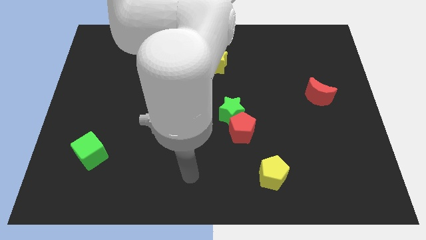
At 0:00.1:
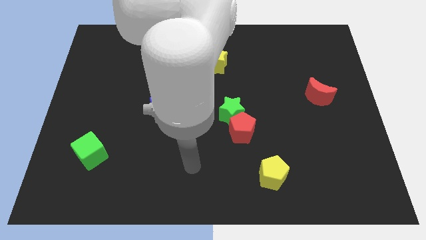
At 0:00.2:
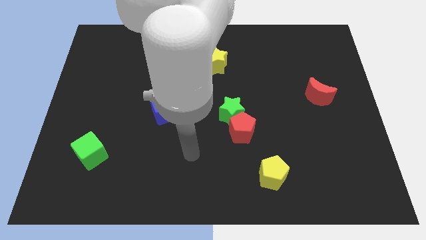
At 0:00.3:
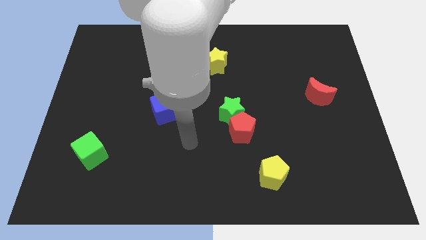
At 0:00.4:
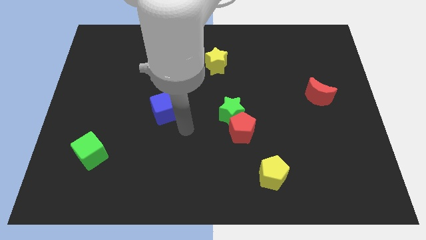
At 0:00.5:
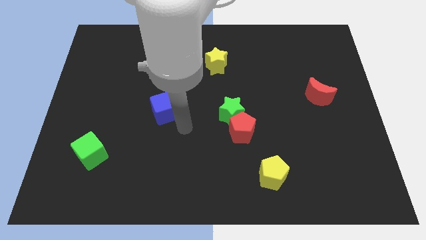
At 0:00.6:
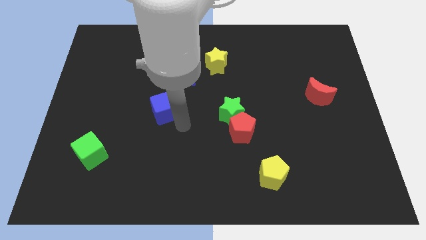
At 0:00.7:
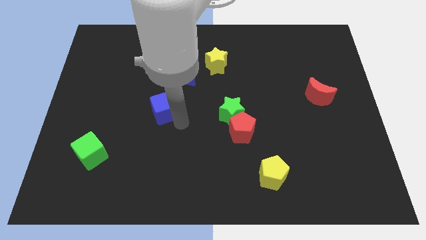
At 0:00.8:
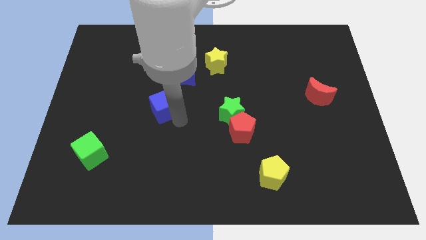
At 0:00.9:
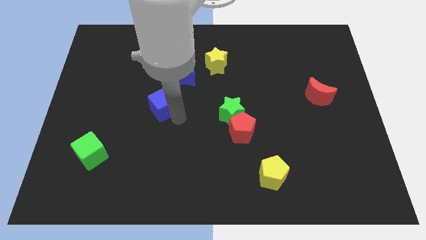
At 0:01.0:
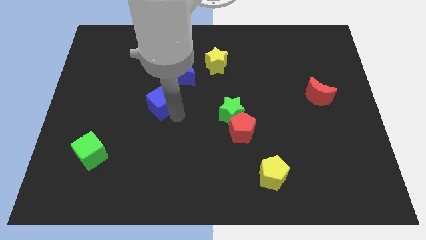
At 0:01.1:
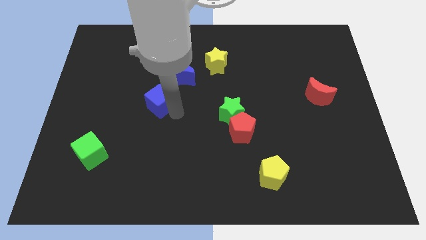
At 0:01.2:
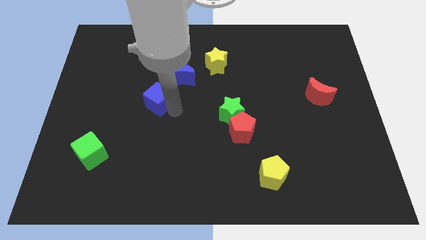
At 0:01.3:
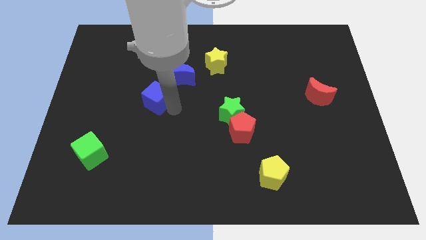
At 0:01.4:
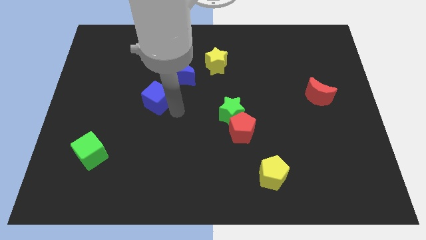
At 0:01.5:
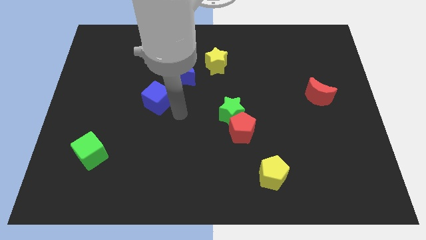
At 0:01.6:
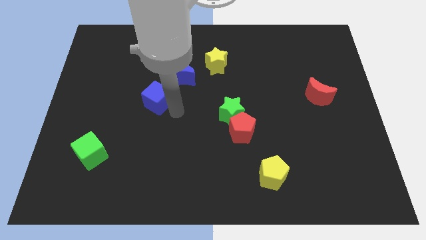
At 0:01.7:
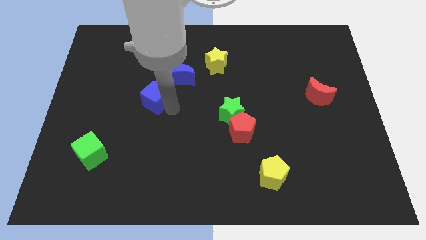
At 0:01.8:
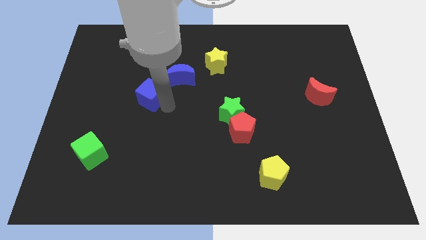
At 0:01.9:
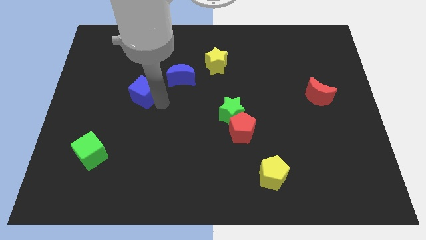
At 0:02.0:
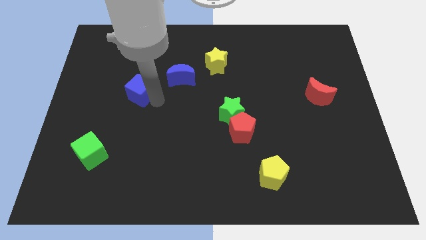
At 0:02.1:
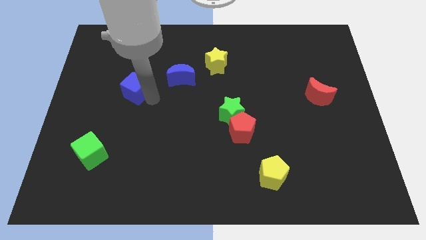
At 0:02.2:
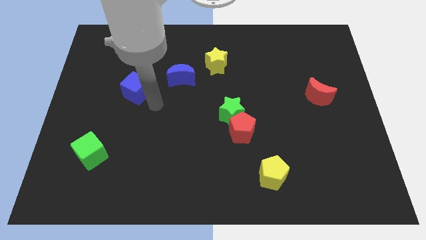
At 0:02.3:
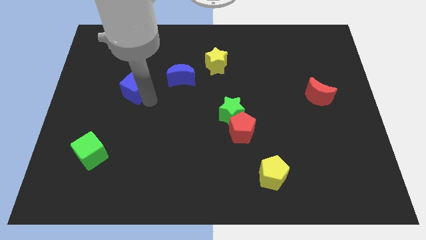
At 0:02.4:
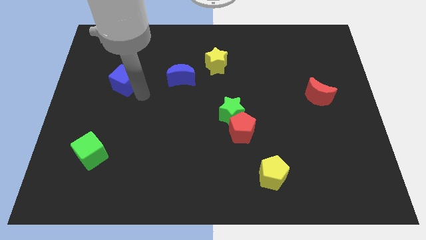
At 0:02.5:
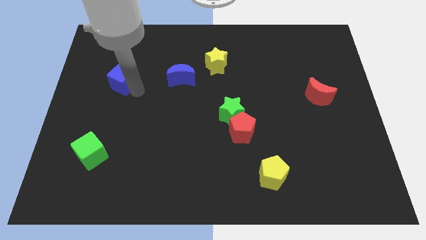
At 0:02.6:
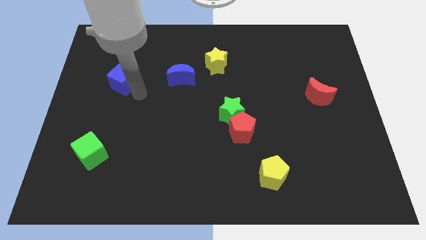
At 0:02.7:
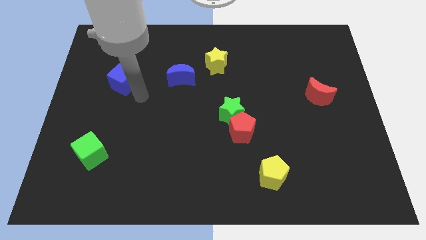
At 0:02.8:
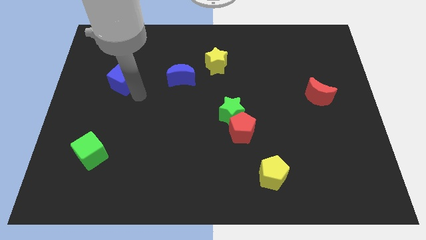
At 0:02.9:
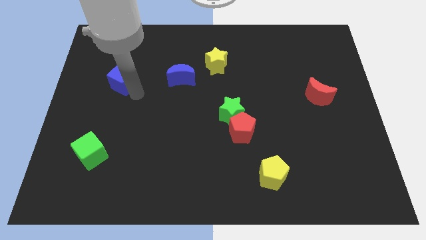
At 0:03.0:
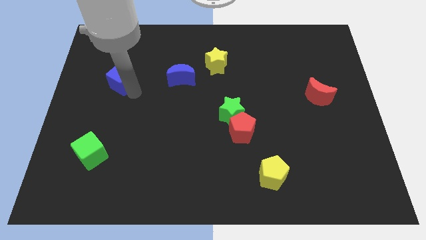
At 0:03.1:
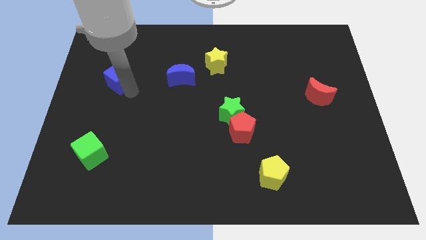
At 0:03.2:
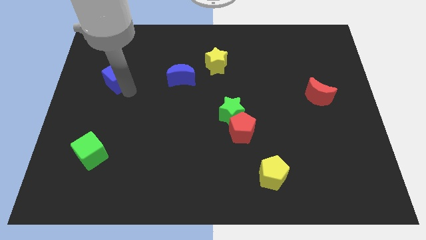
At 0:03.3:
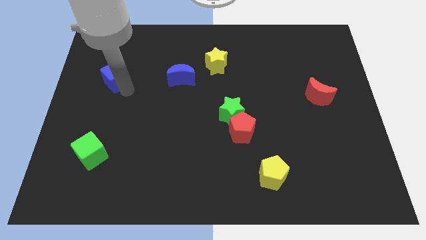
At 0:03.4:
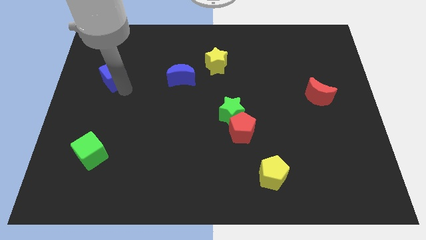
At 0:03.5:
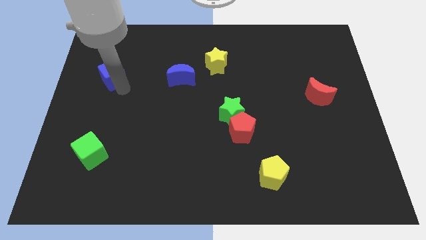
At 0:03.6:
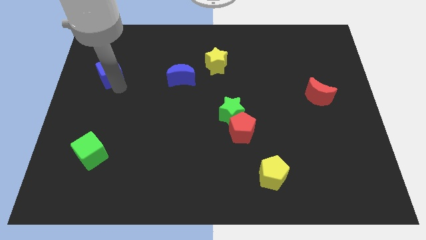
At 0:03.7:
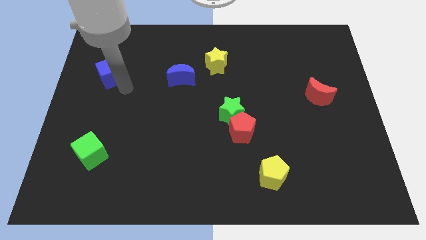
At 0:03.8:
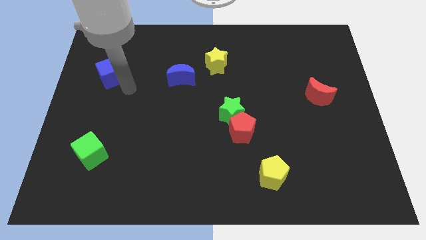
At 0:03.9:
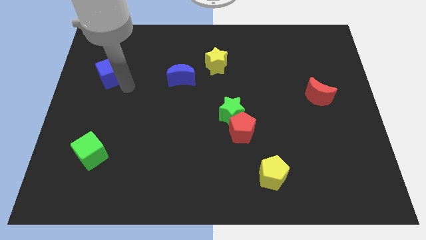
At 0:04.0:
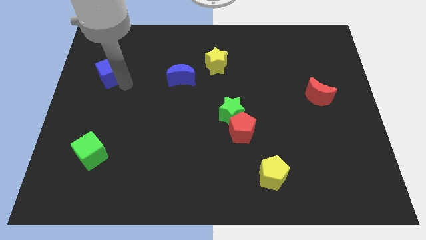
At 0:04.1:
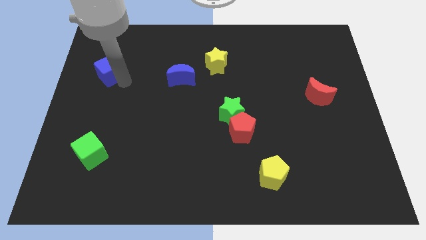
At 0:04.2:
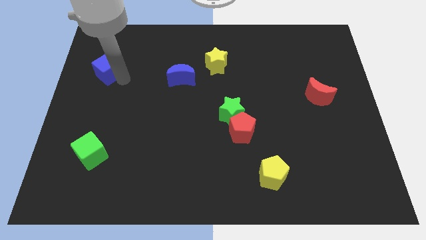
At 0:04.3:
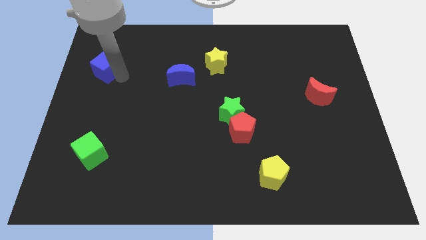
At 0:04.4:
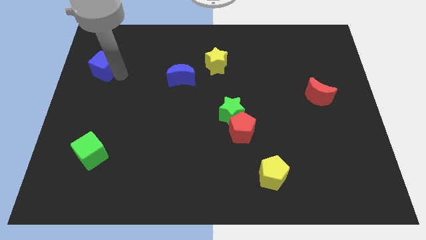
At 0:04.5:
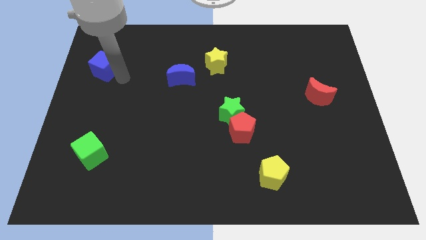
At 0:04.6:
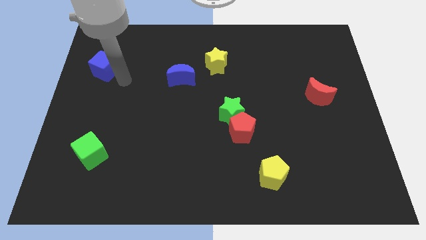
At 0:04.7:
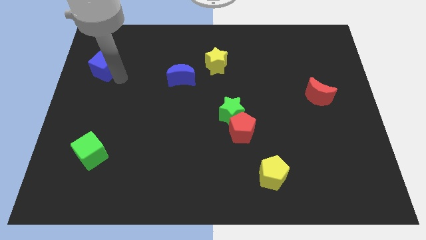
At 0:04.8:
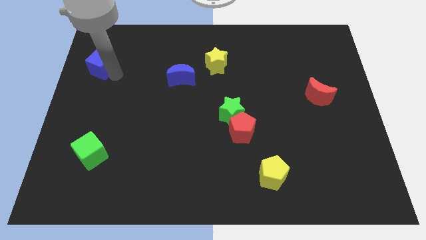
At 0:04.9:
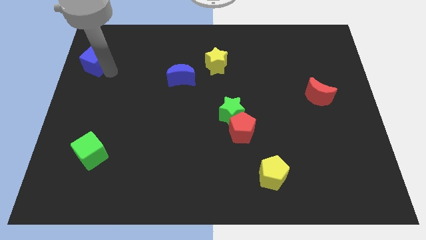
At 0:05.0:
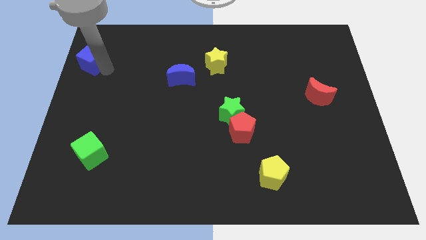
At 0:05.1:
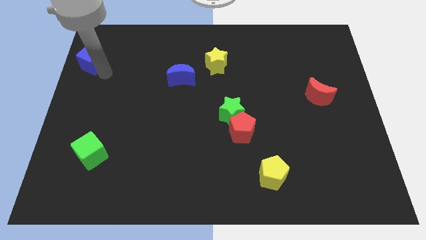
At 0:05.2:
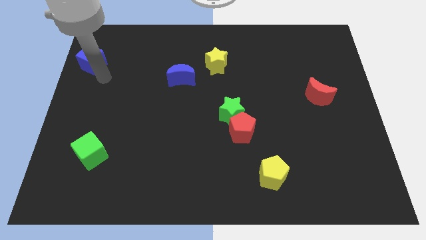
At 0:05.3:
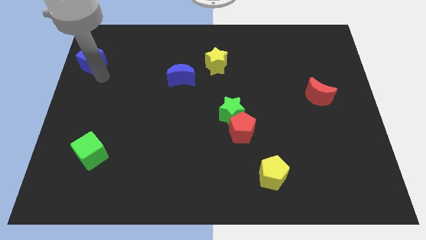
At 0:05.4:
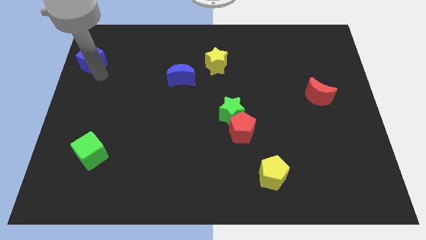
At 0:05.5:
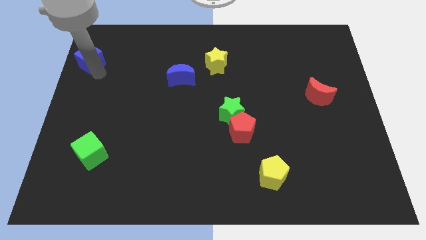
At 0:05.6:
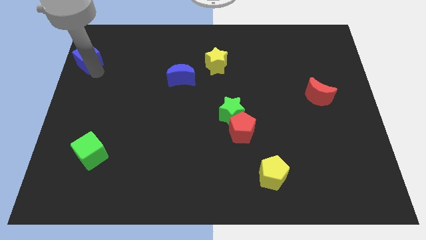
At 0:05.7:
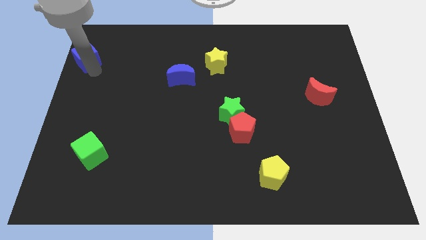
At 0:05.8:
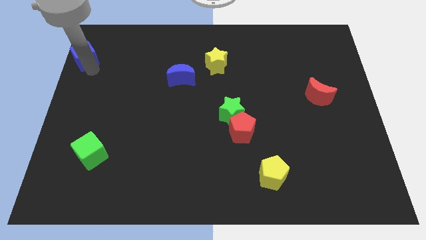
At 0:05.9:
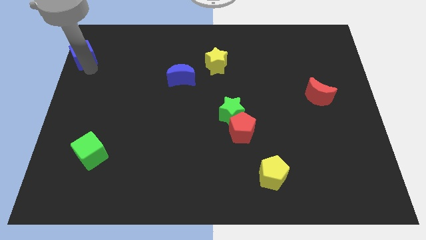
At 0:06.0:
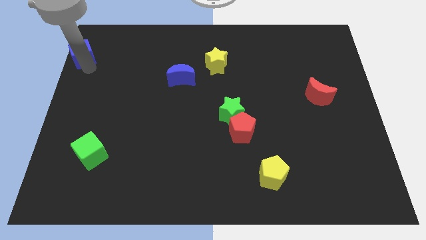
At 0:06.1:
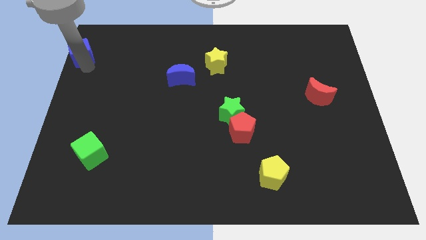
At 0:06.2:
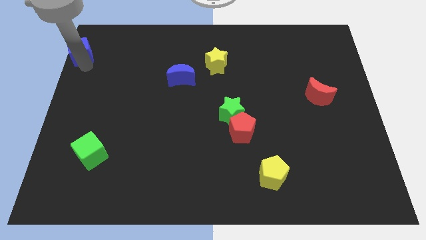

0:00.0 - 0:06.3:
slide the blue cube to the top left
